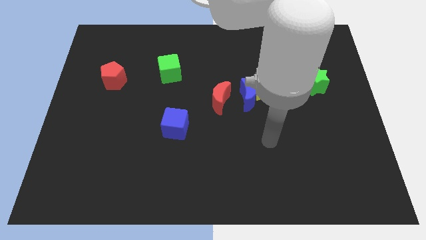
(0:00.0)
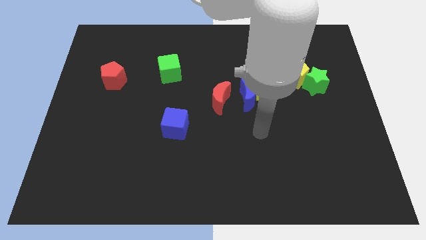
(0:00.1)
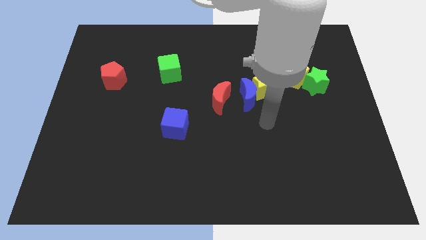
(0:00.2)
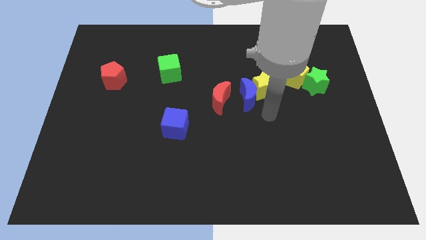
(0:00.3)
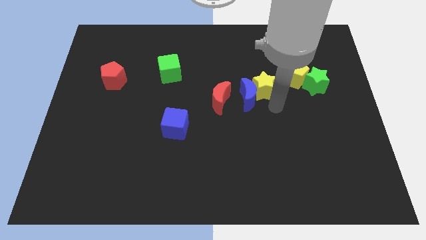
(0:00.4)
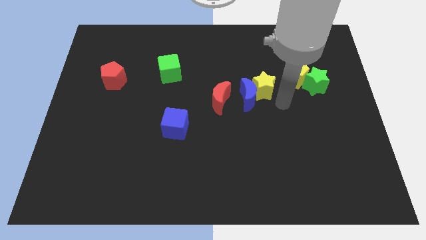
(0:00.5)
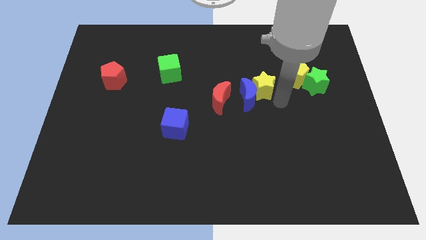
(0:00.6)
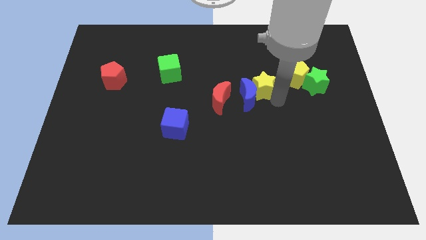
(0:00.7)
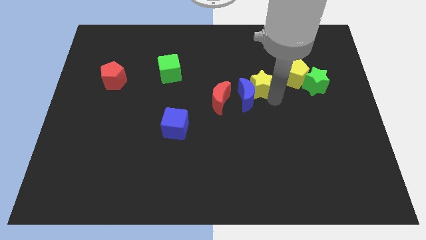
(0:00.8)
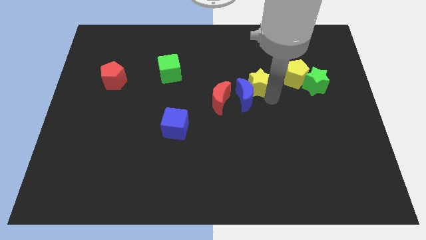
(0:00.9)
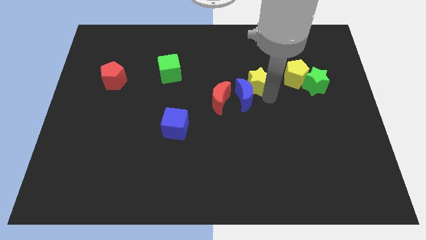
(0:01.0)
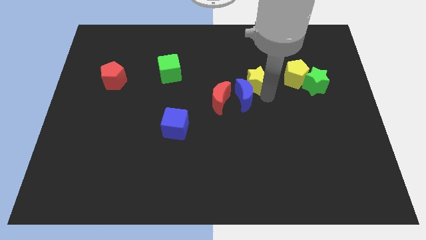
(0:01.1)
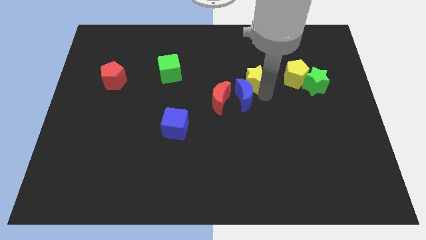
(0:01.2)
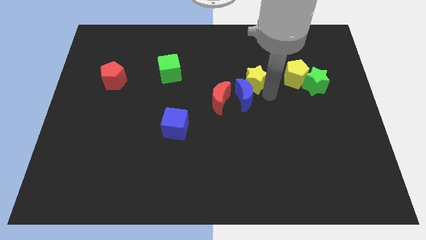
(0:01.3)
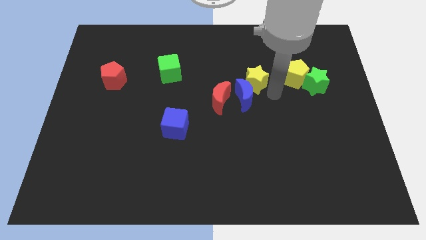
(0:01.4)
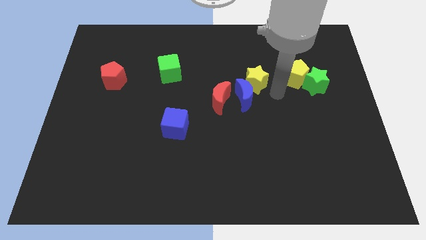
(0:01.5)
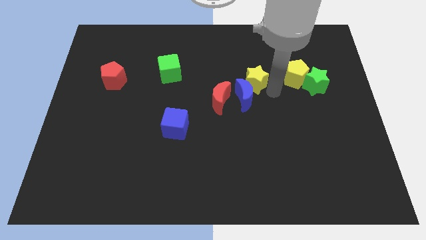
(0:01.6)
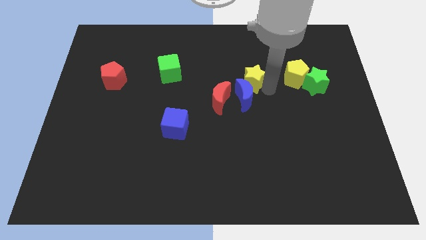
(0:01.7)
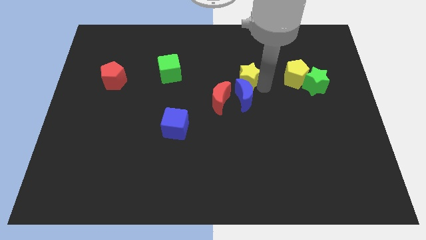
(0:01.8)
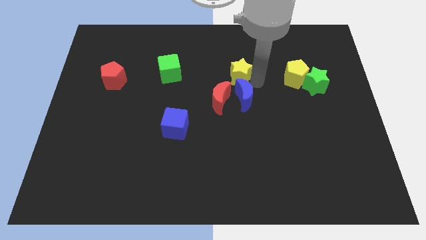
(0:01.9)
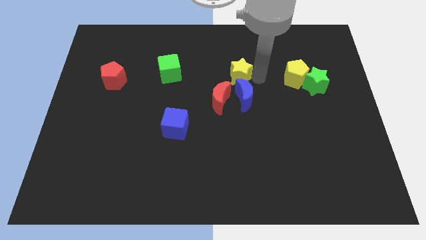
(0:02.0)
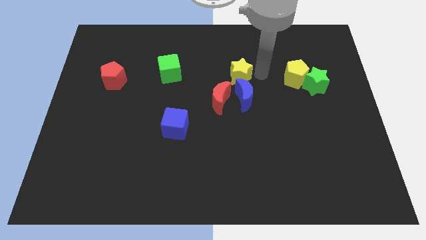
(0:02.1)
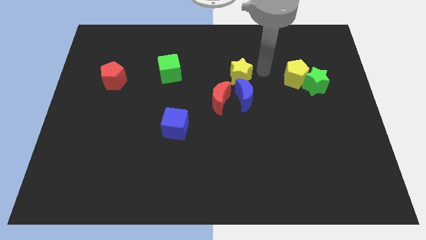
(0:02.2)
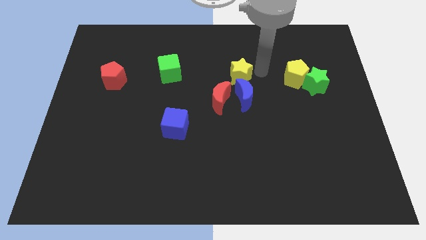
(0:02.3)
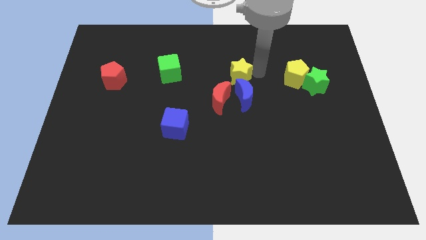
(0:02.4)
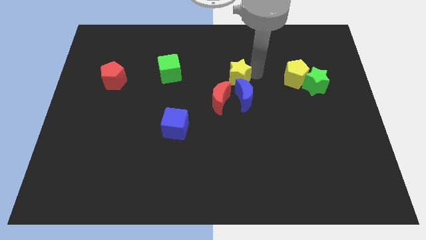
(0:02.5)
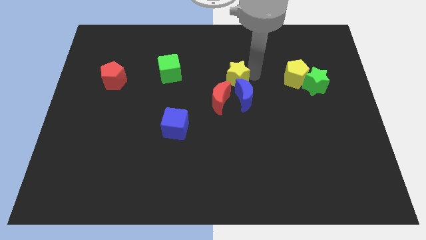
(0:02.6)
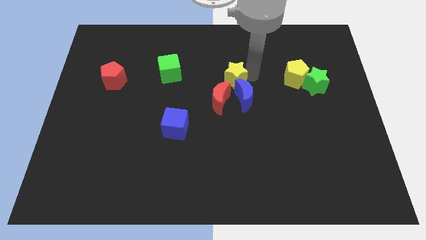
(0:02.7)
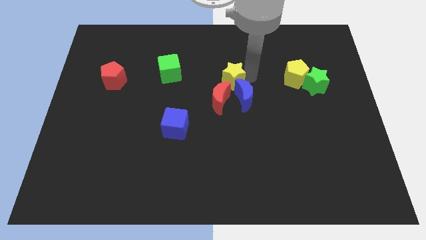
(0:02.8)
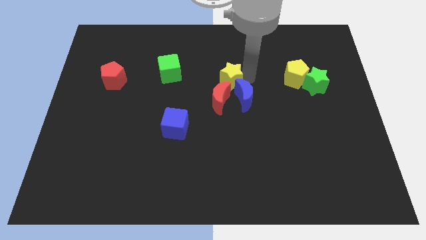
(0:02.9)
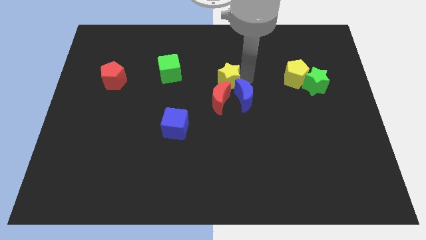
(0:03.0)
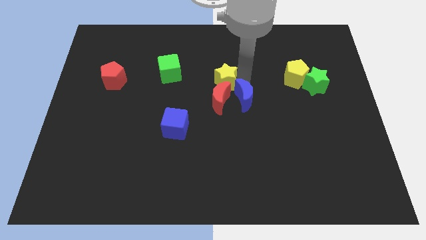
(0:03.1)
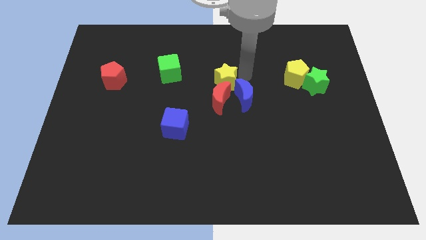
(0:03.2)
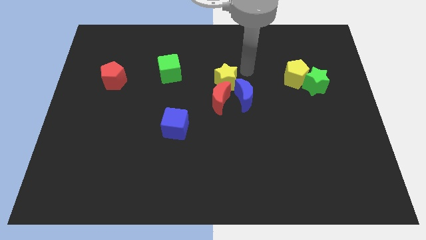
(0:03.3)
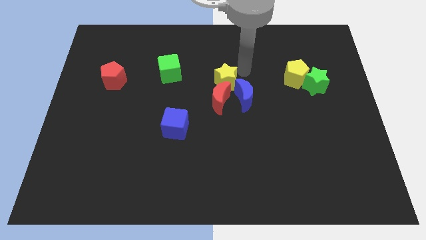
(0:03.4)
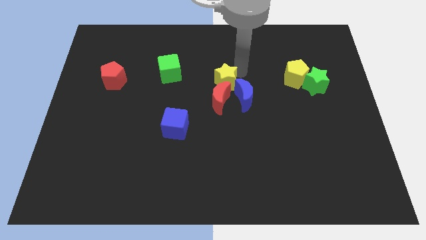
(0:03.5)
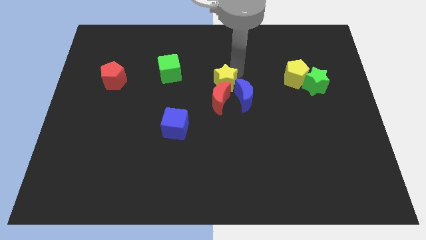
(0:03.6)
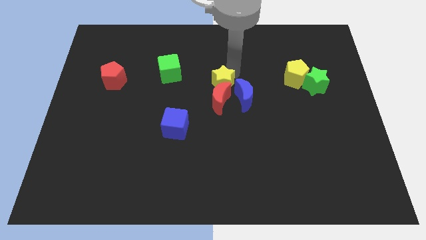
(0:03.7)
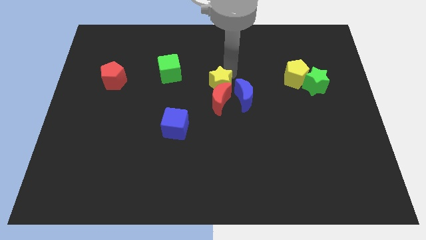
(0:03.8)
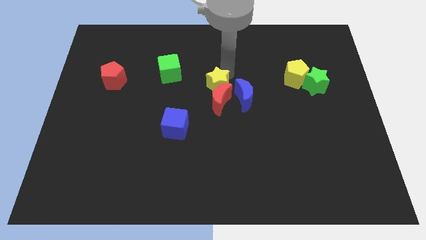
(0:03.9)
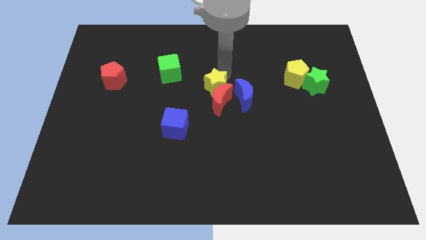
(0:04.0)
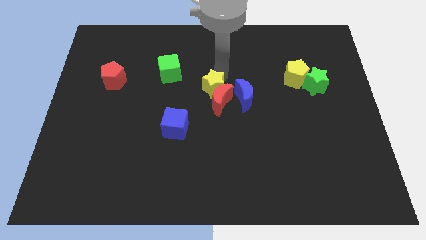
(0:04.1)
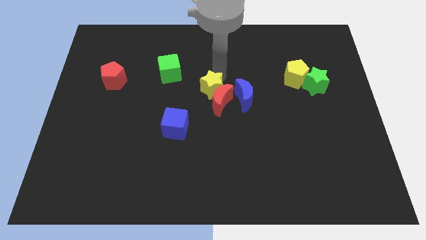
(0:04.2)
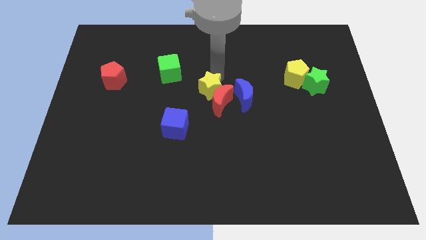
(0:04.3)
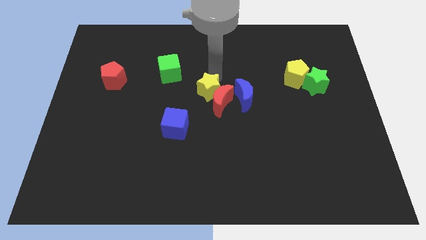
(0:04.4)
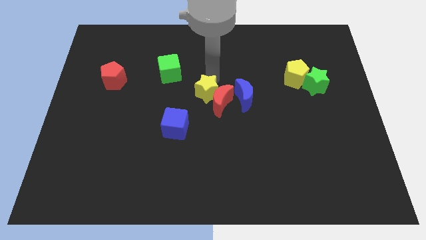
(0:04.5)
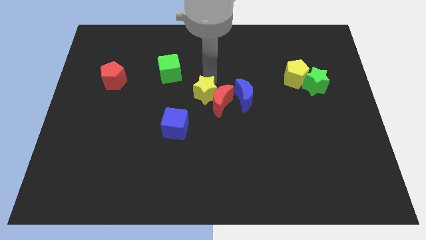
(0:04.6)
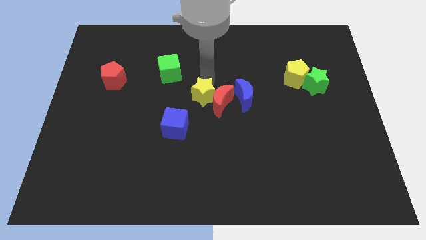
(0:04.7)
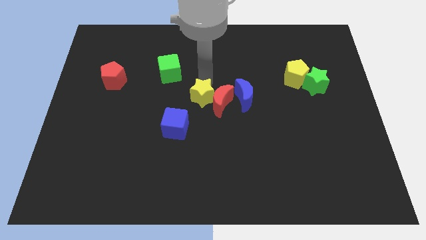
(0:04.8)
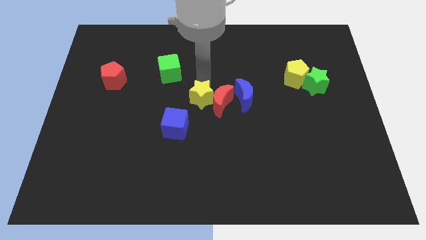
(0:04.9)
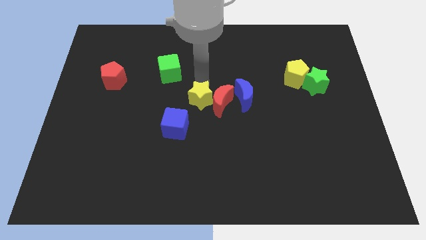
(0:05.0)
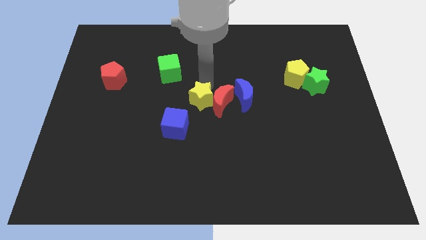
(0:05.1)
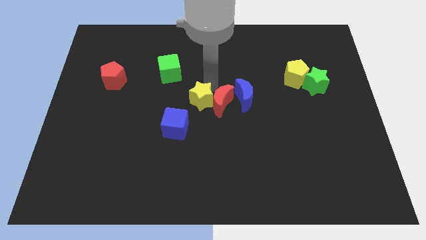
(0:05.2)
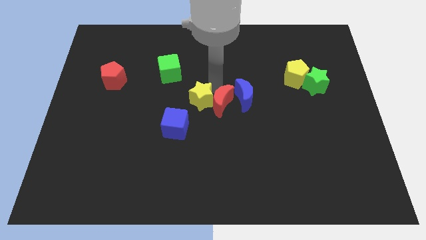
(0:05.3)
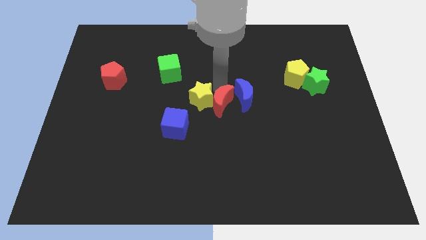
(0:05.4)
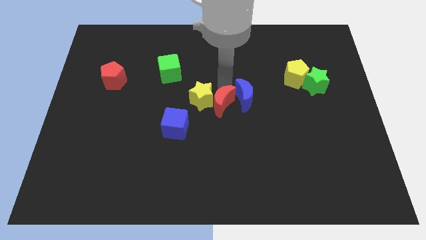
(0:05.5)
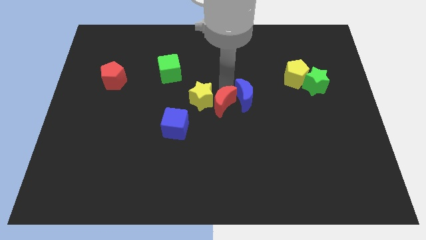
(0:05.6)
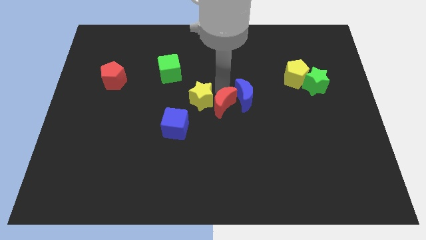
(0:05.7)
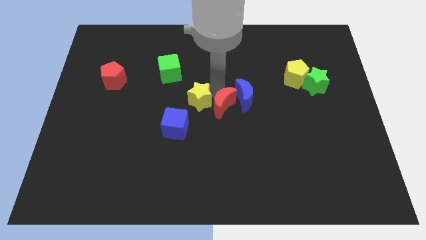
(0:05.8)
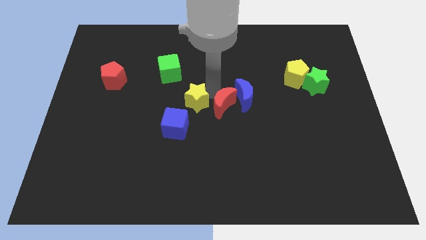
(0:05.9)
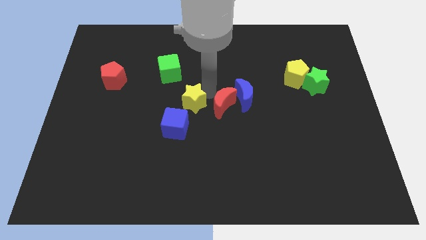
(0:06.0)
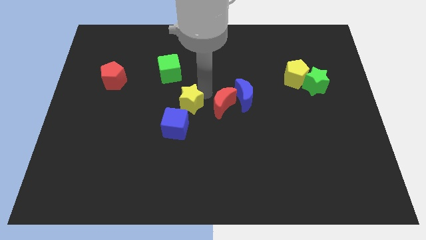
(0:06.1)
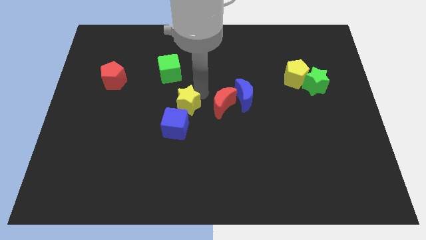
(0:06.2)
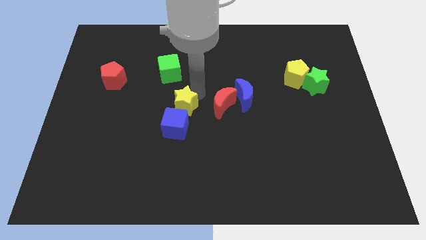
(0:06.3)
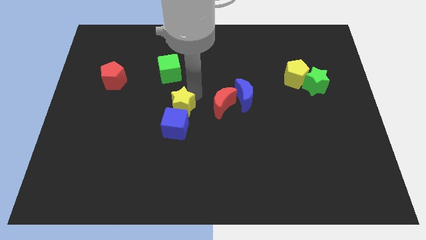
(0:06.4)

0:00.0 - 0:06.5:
move the yellow star towards the blue cube

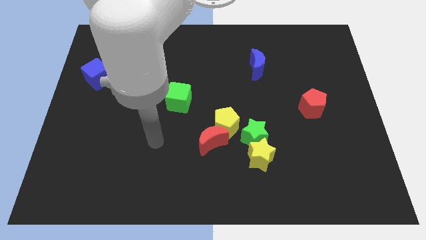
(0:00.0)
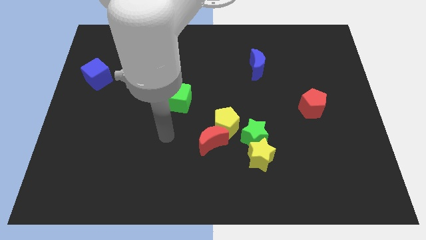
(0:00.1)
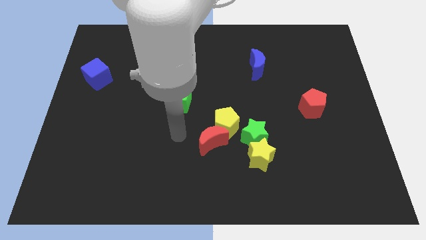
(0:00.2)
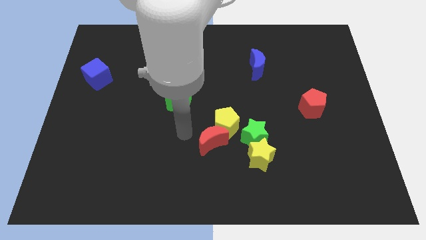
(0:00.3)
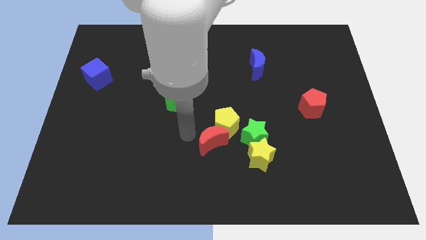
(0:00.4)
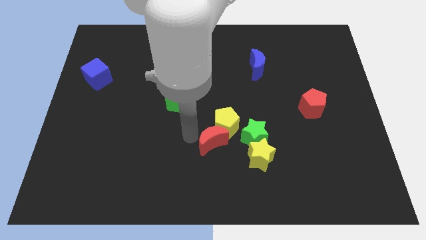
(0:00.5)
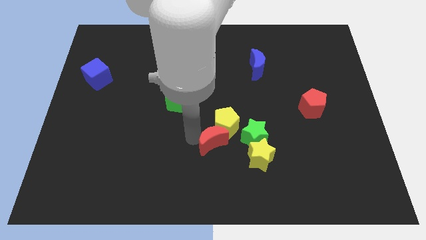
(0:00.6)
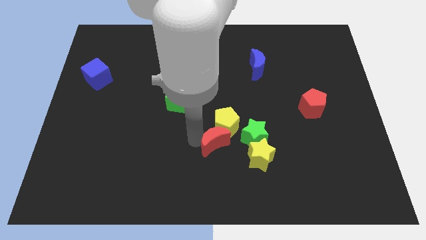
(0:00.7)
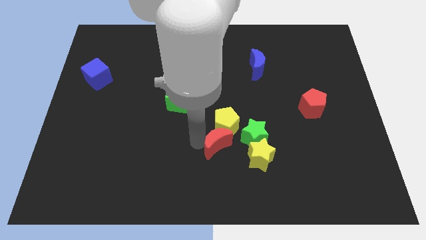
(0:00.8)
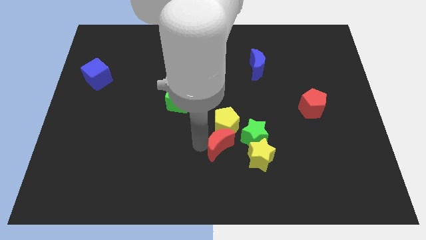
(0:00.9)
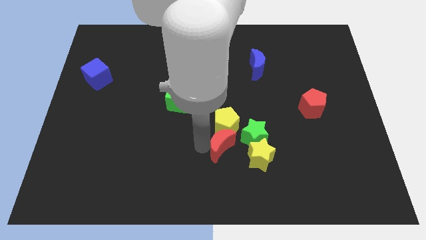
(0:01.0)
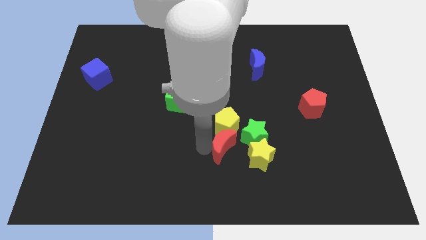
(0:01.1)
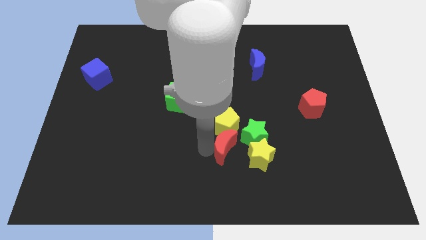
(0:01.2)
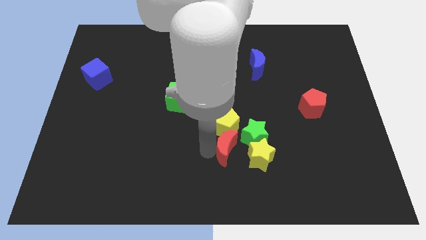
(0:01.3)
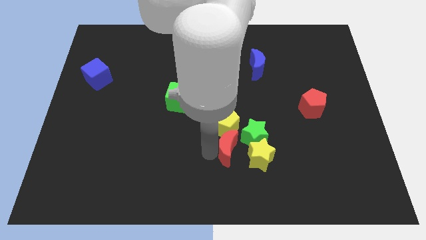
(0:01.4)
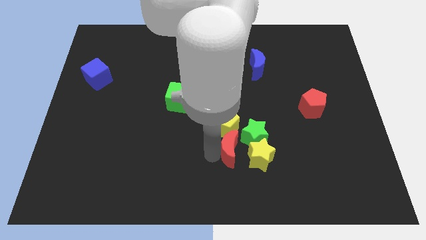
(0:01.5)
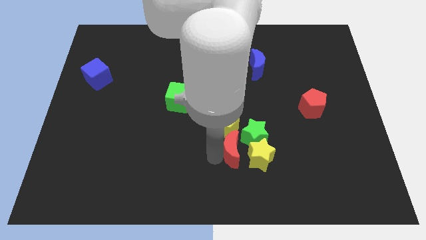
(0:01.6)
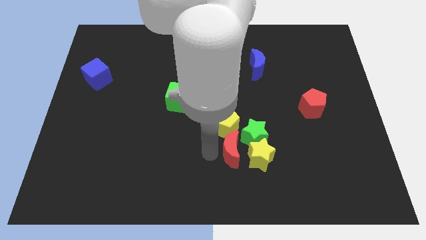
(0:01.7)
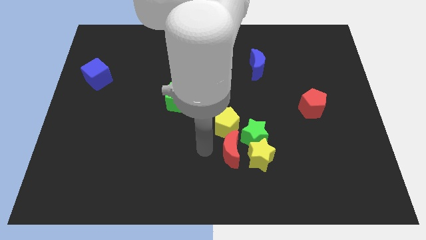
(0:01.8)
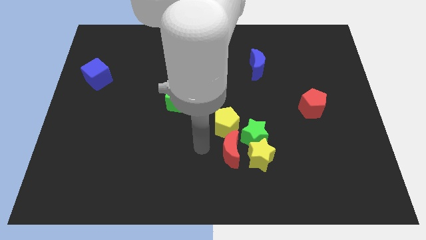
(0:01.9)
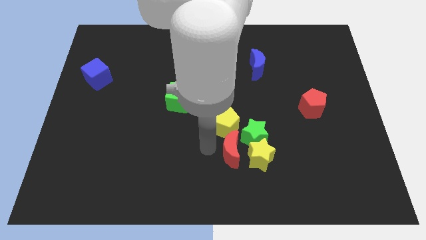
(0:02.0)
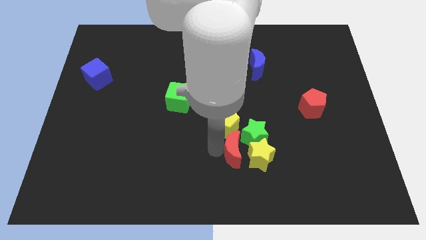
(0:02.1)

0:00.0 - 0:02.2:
put the red moon close to the yellow star
